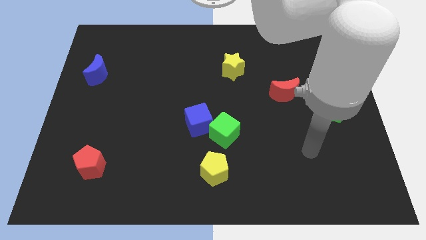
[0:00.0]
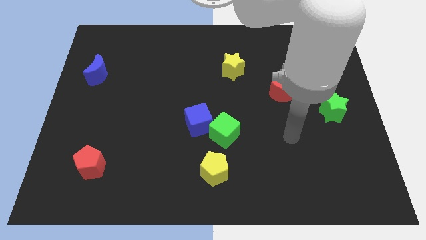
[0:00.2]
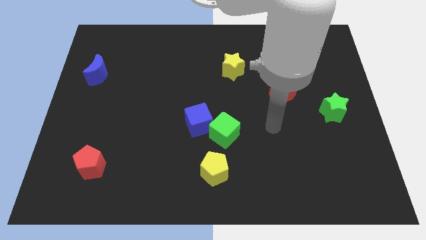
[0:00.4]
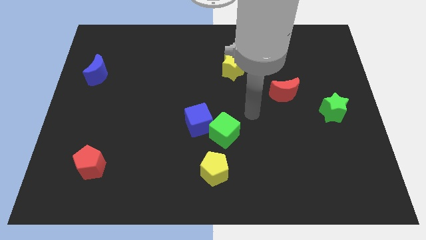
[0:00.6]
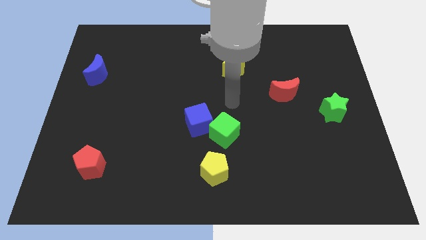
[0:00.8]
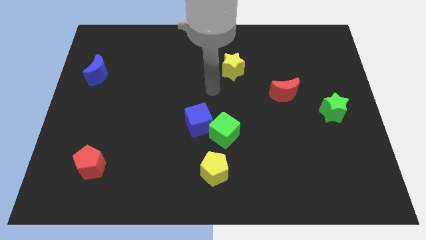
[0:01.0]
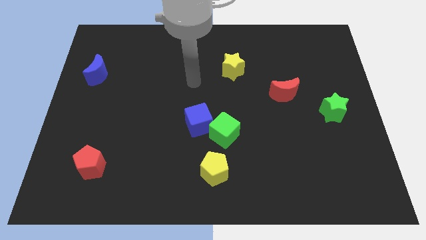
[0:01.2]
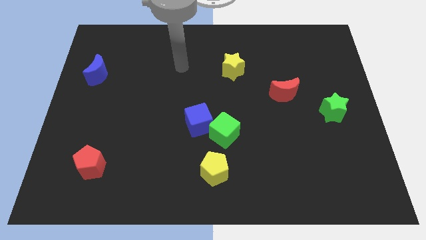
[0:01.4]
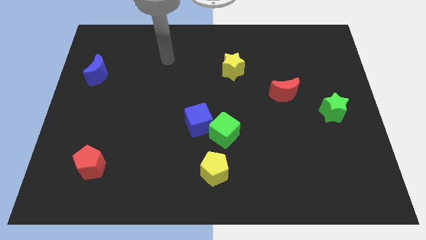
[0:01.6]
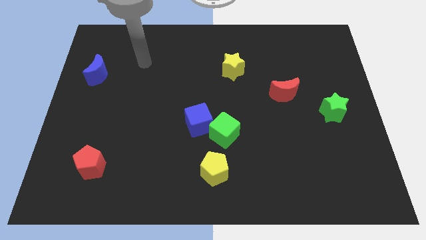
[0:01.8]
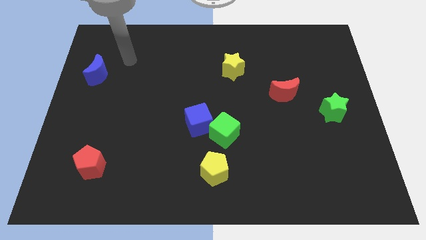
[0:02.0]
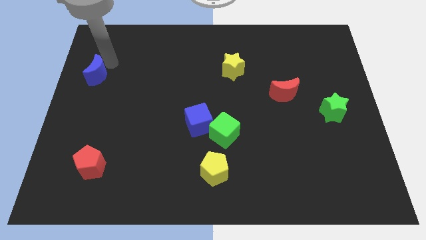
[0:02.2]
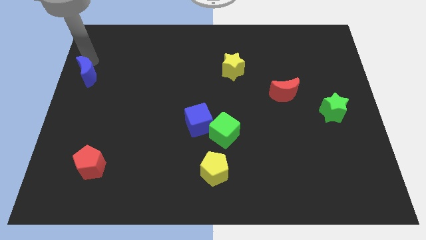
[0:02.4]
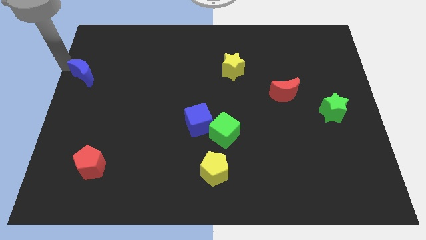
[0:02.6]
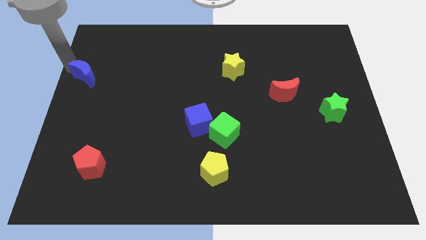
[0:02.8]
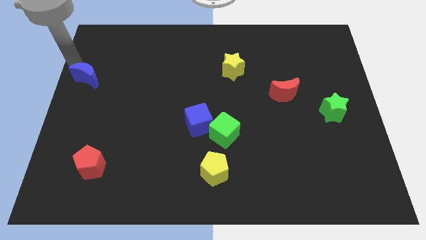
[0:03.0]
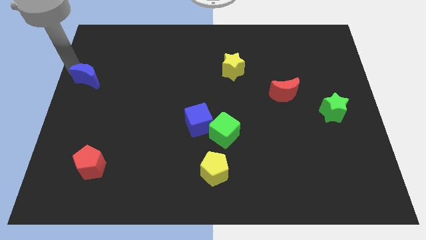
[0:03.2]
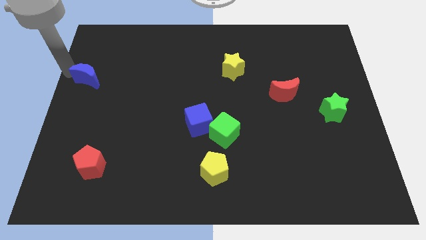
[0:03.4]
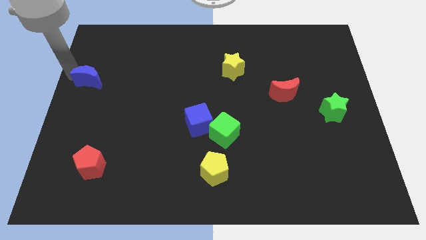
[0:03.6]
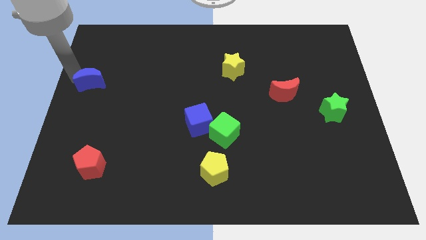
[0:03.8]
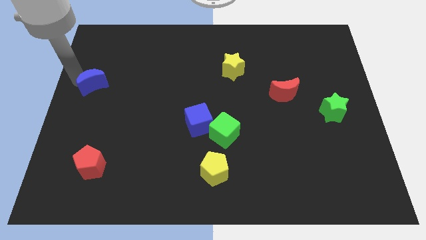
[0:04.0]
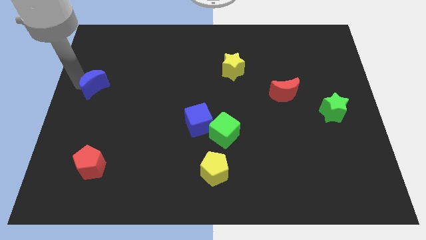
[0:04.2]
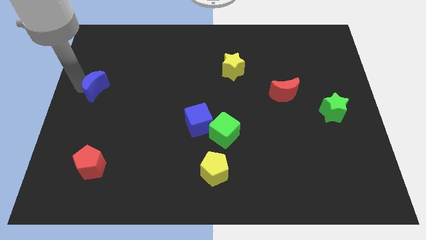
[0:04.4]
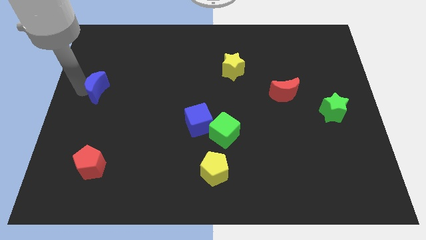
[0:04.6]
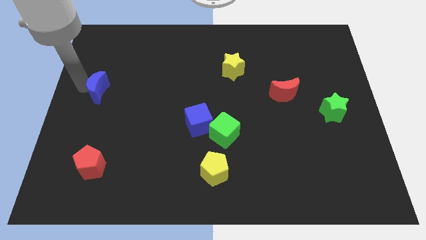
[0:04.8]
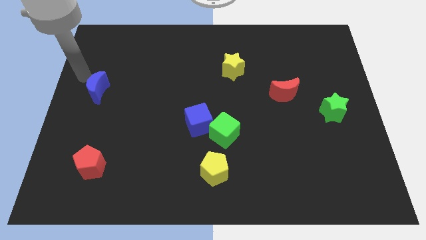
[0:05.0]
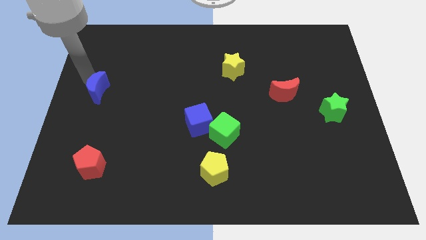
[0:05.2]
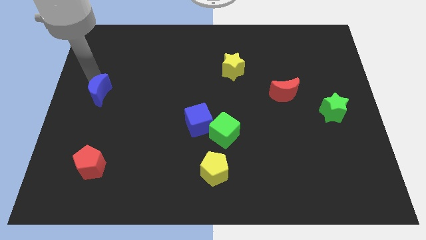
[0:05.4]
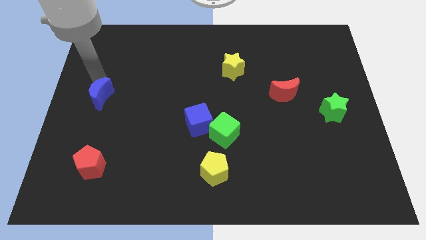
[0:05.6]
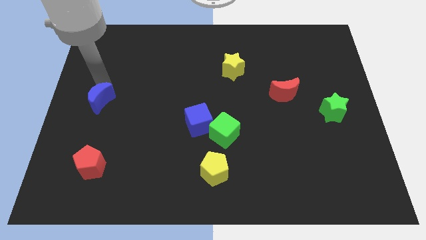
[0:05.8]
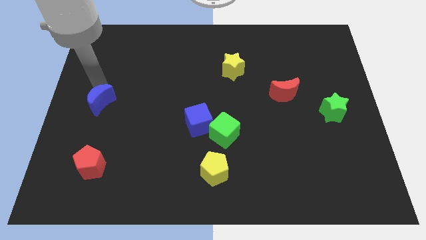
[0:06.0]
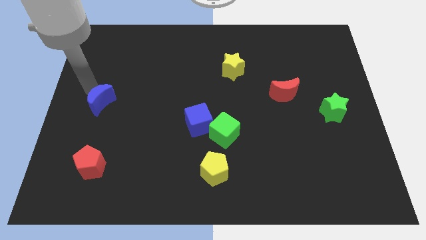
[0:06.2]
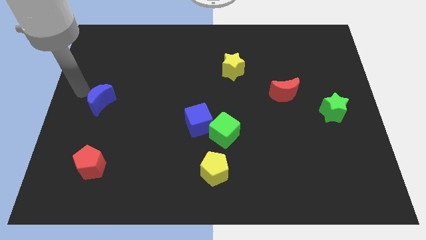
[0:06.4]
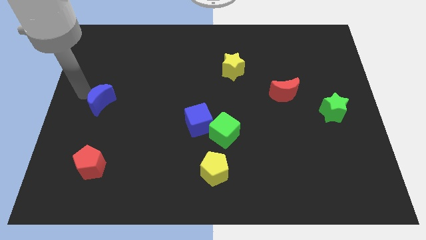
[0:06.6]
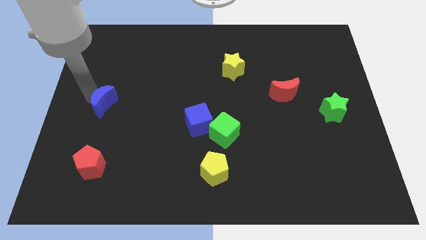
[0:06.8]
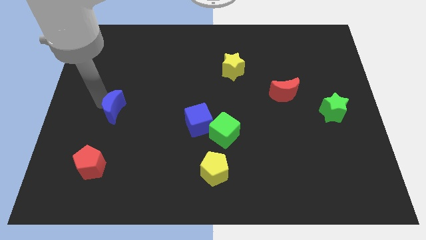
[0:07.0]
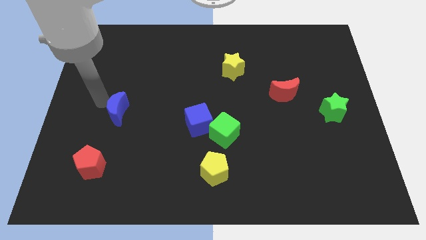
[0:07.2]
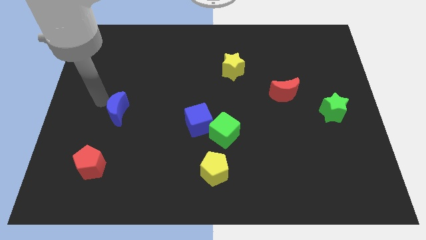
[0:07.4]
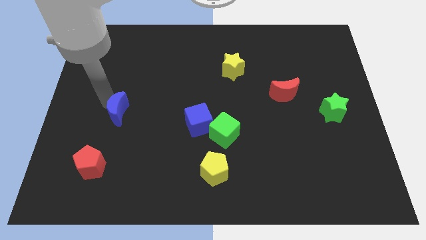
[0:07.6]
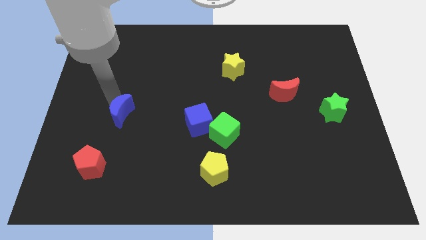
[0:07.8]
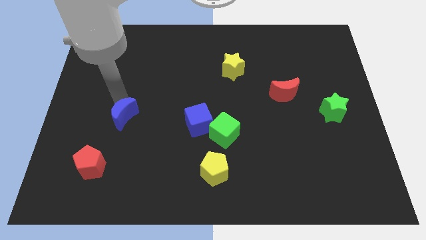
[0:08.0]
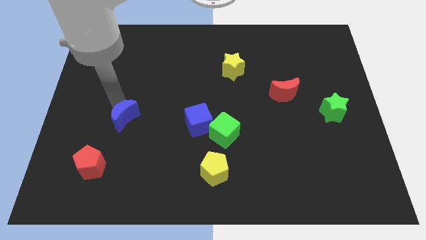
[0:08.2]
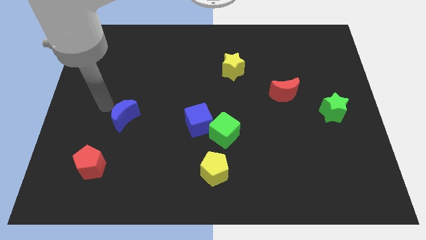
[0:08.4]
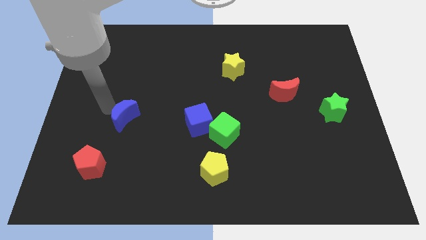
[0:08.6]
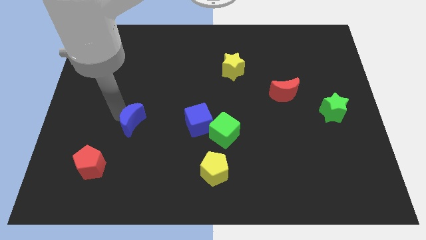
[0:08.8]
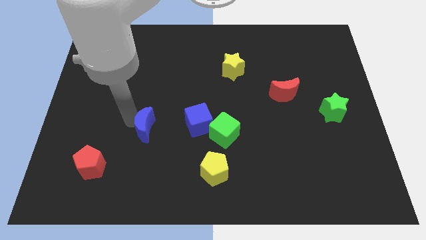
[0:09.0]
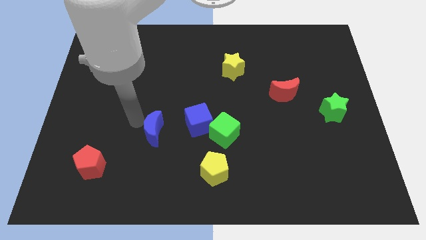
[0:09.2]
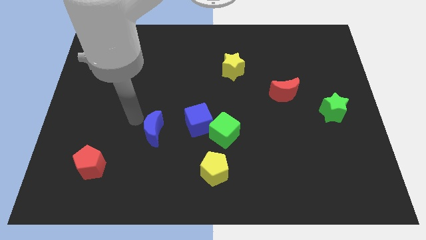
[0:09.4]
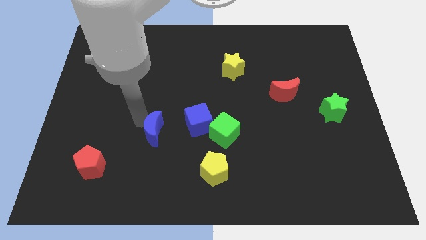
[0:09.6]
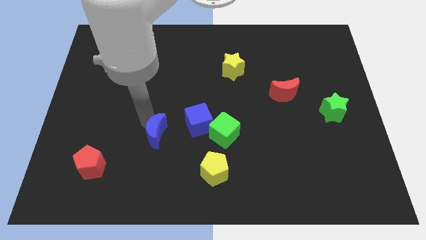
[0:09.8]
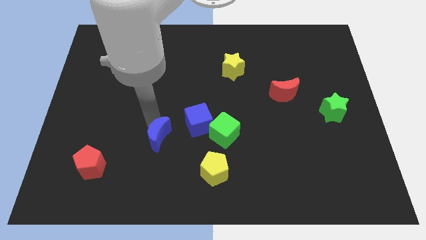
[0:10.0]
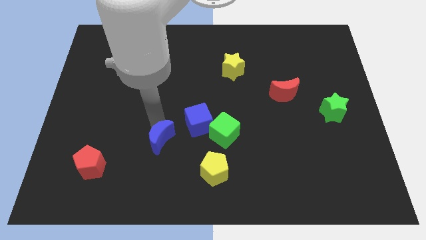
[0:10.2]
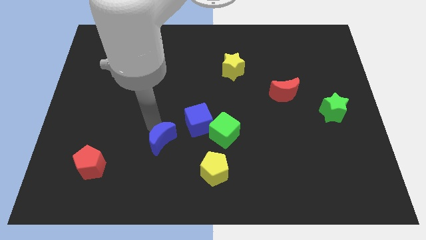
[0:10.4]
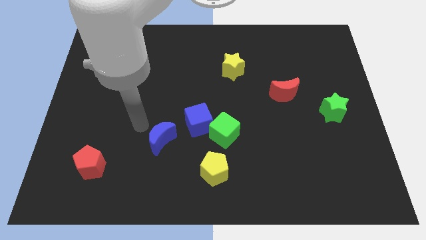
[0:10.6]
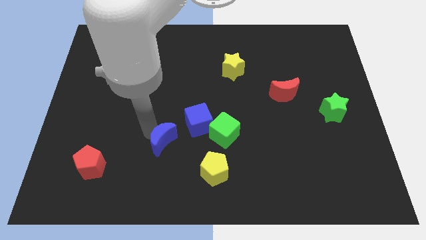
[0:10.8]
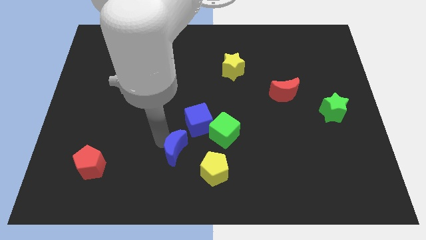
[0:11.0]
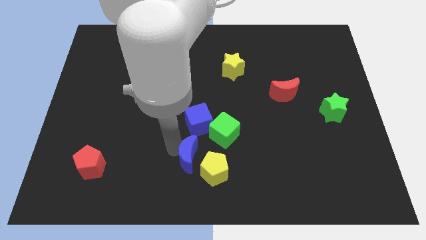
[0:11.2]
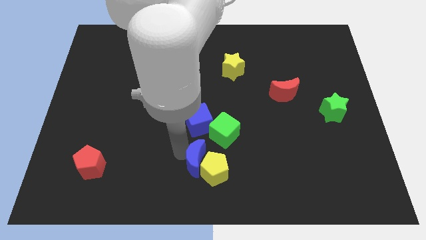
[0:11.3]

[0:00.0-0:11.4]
move the blue moon to the yellow pentagon

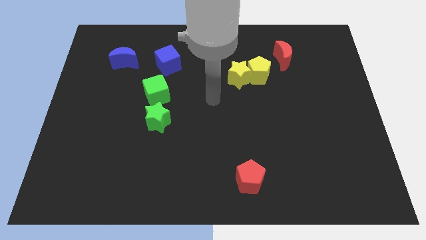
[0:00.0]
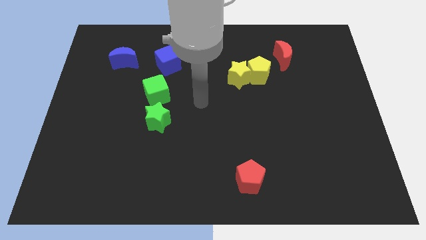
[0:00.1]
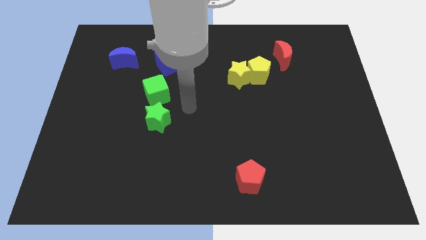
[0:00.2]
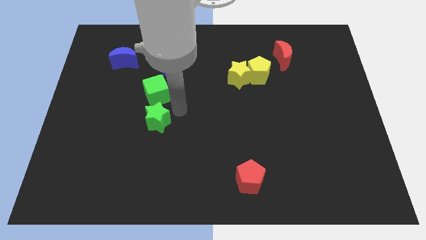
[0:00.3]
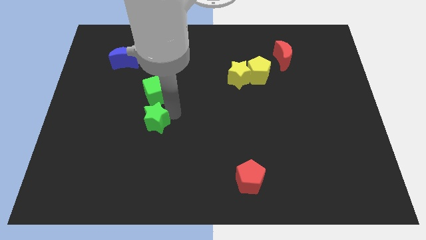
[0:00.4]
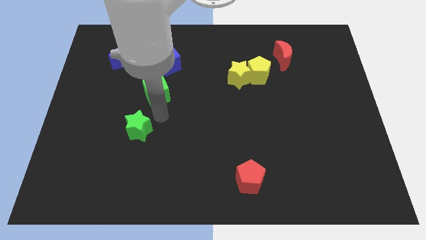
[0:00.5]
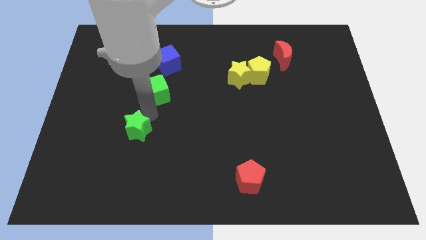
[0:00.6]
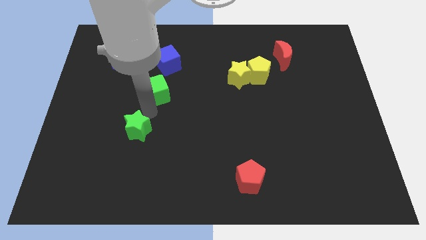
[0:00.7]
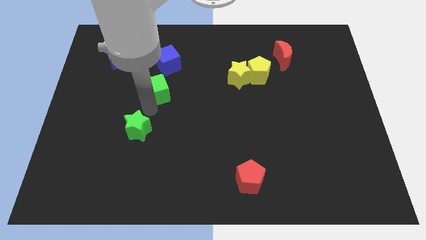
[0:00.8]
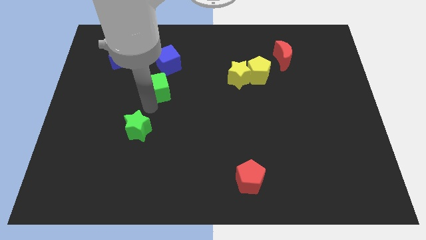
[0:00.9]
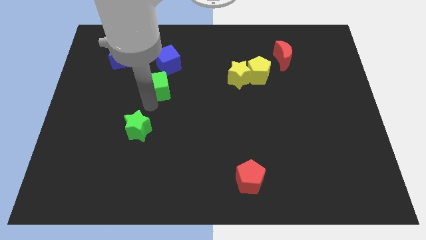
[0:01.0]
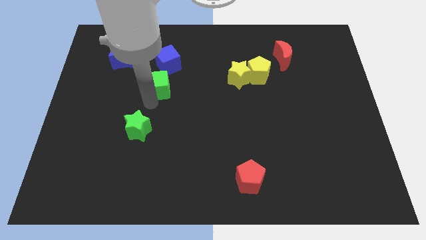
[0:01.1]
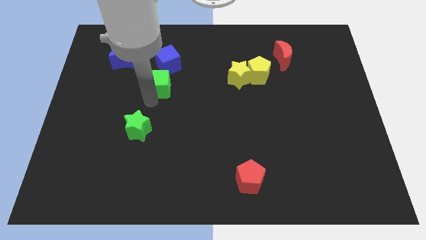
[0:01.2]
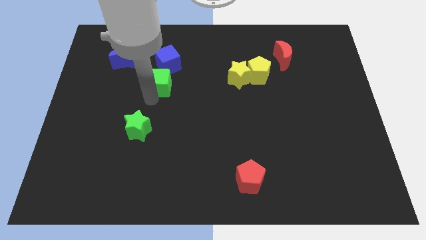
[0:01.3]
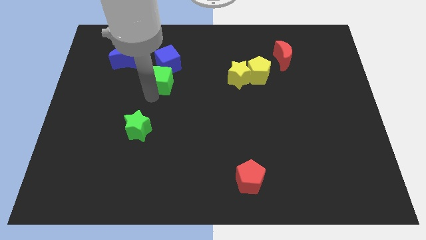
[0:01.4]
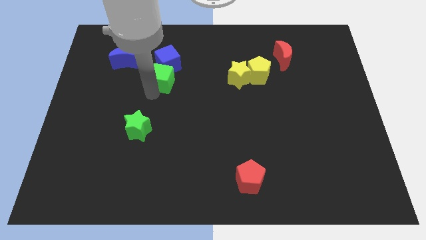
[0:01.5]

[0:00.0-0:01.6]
move the green cube to the blue cube
